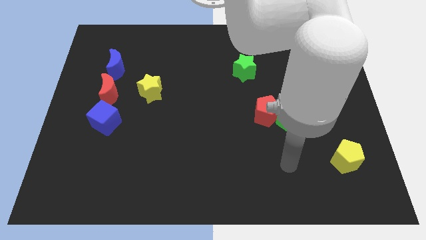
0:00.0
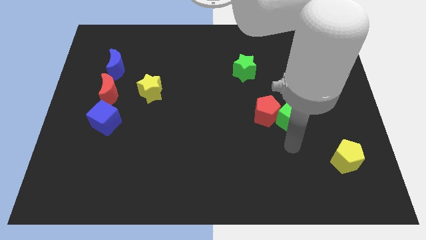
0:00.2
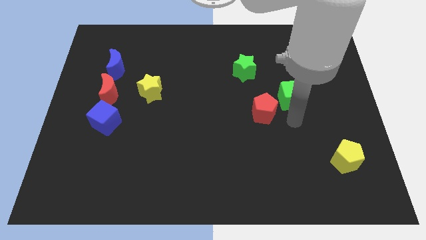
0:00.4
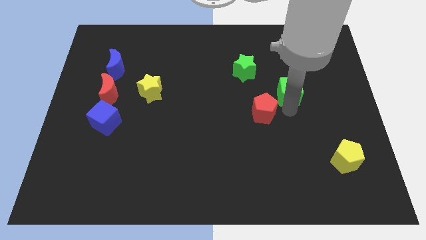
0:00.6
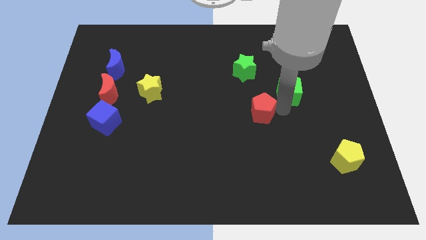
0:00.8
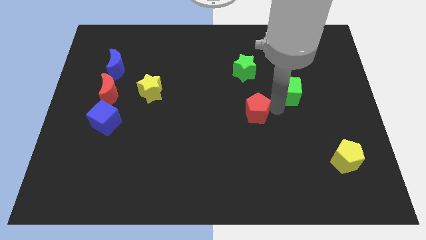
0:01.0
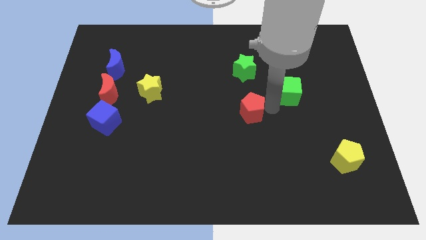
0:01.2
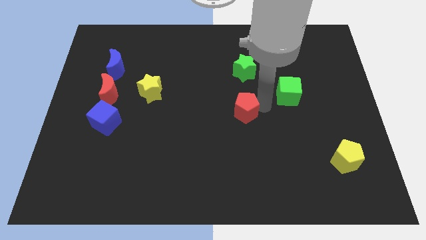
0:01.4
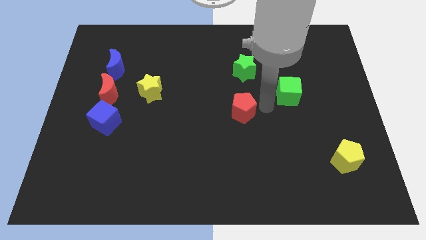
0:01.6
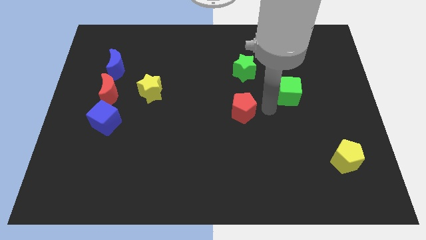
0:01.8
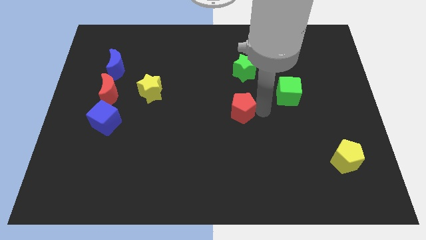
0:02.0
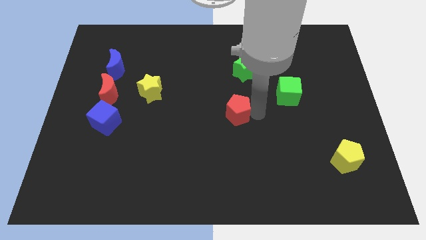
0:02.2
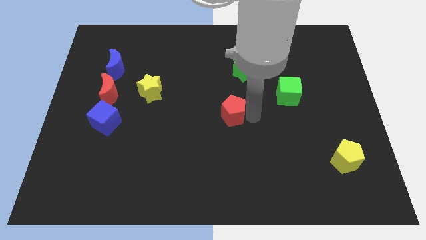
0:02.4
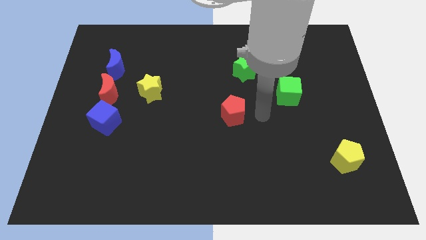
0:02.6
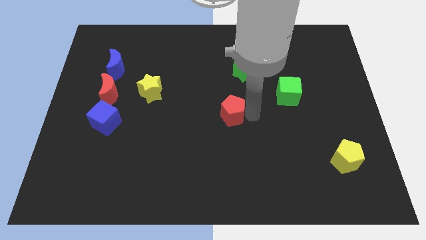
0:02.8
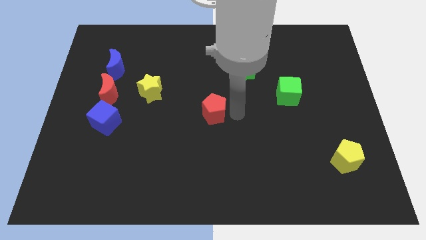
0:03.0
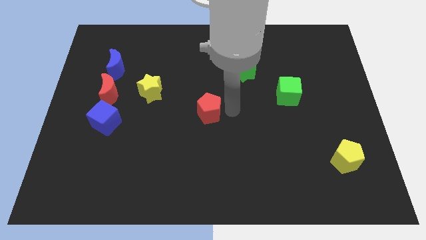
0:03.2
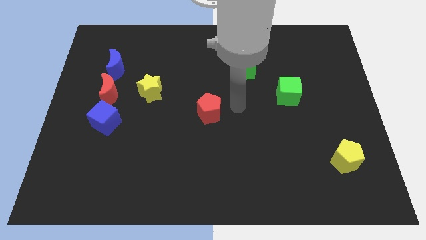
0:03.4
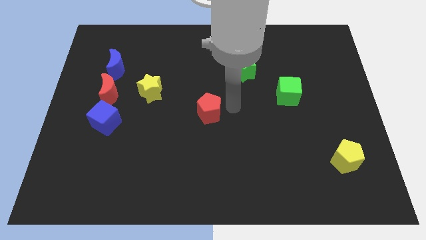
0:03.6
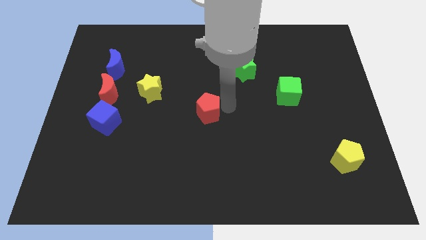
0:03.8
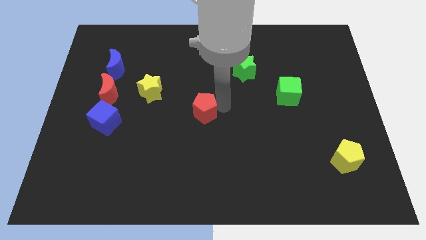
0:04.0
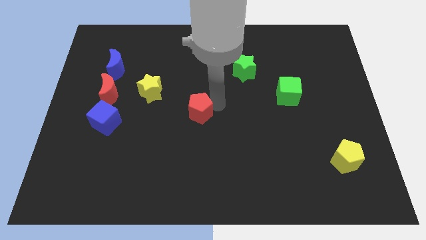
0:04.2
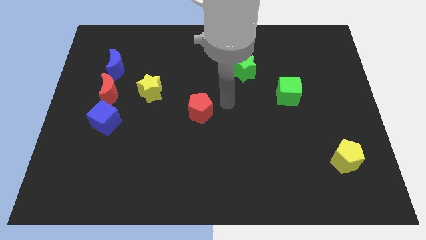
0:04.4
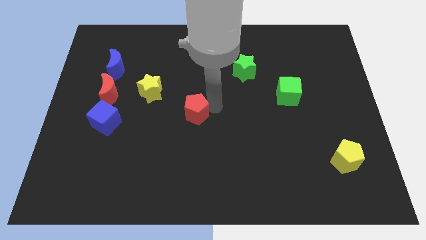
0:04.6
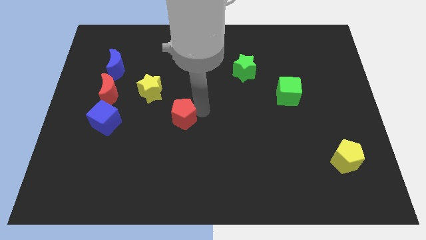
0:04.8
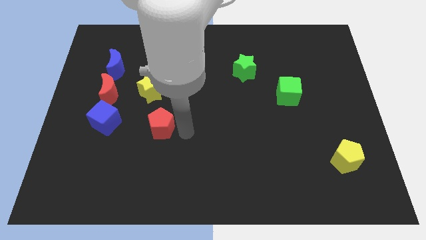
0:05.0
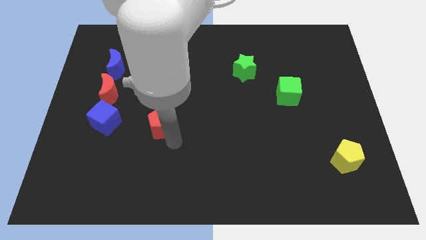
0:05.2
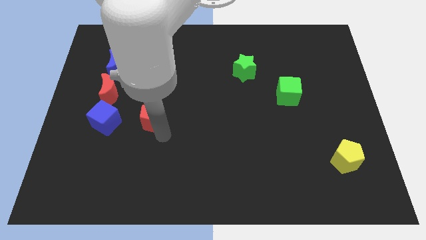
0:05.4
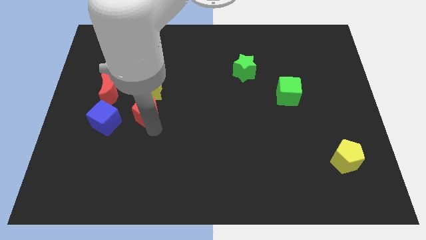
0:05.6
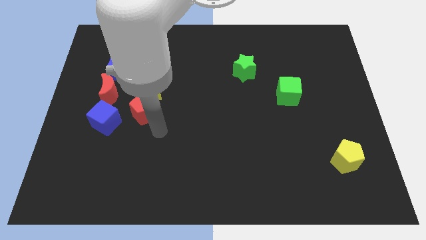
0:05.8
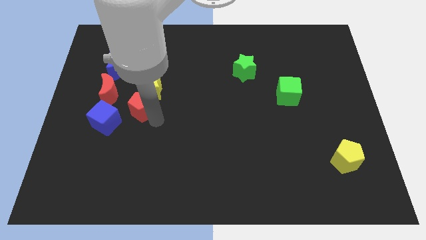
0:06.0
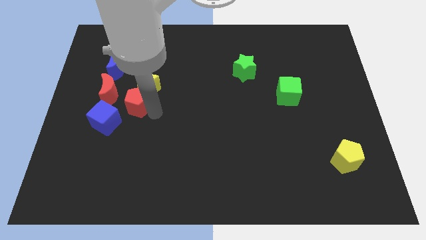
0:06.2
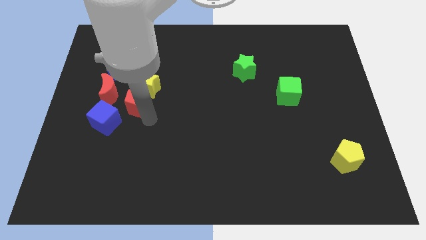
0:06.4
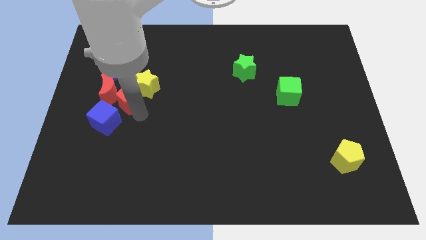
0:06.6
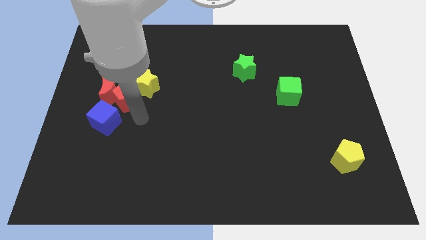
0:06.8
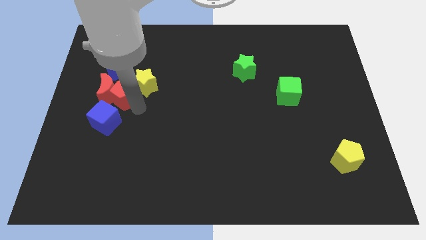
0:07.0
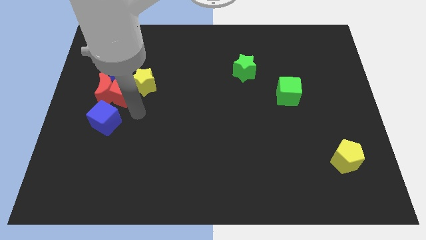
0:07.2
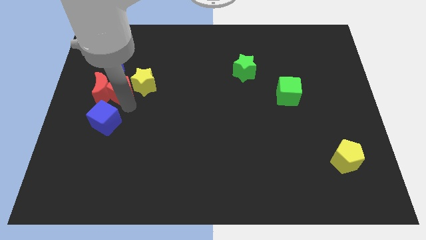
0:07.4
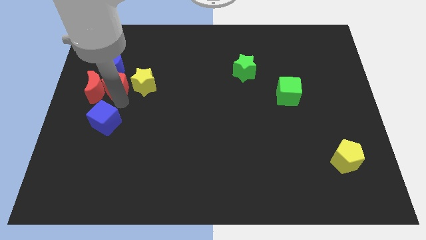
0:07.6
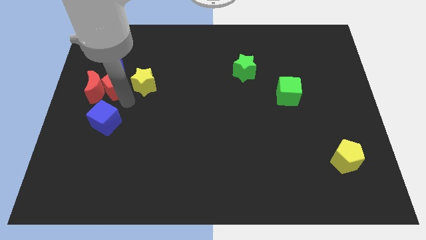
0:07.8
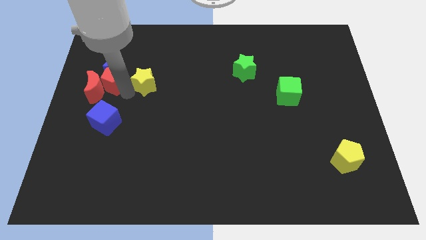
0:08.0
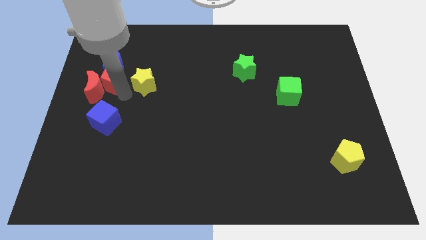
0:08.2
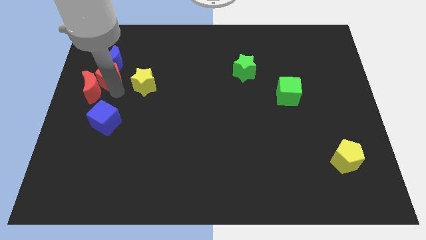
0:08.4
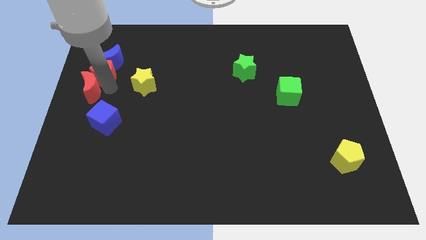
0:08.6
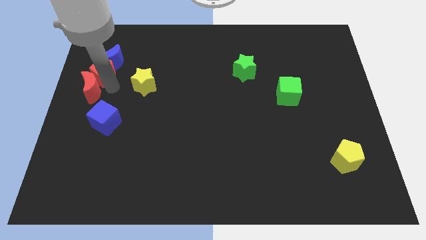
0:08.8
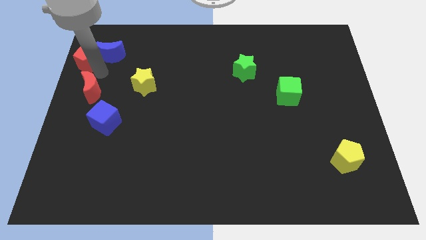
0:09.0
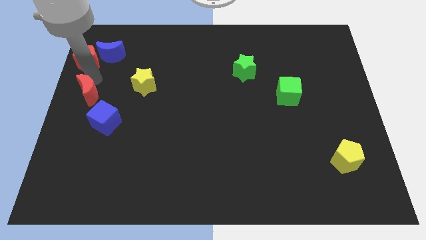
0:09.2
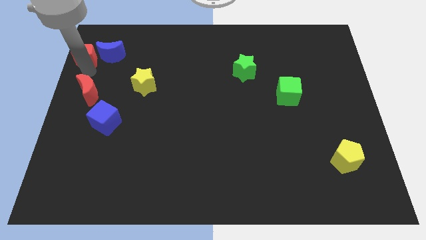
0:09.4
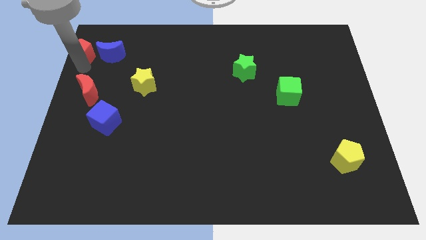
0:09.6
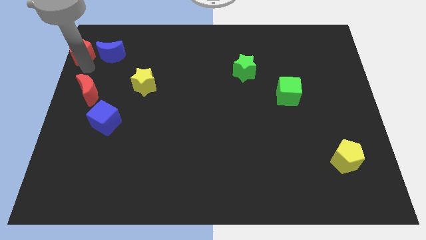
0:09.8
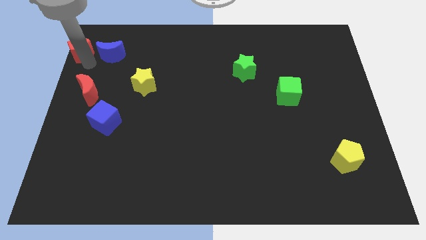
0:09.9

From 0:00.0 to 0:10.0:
move the red pentagon to the top left corner

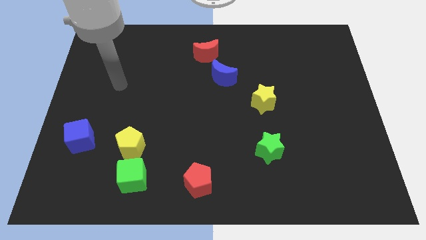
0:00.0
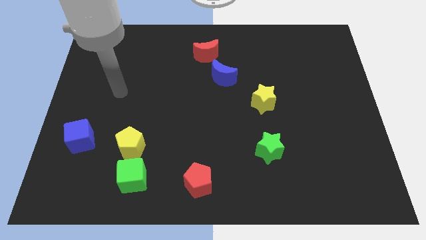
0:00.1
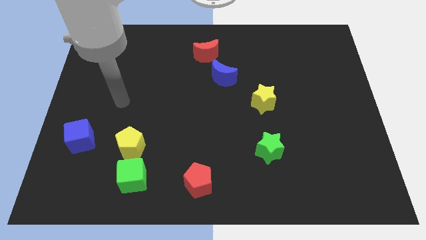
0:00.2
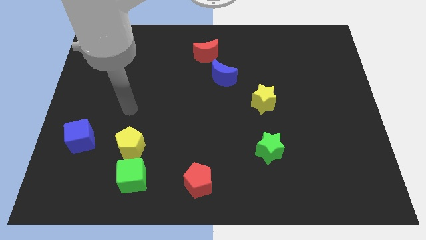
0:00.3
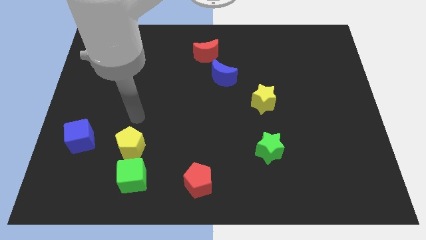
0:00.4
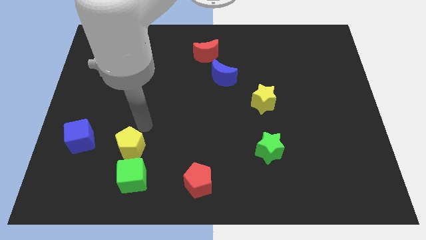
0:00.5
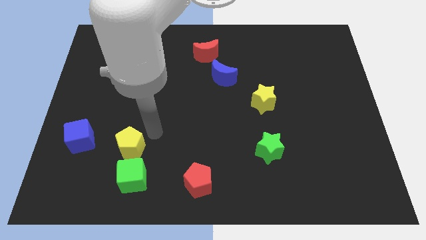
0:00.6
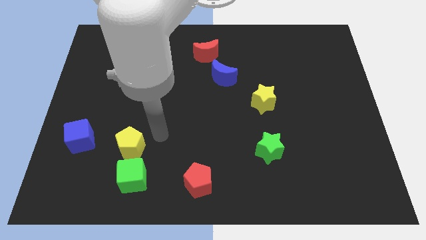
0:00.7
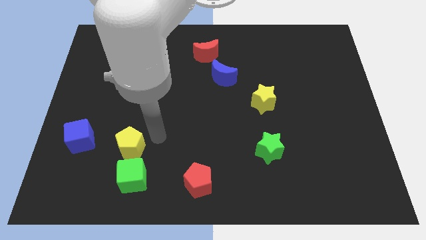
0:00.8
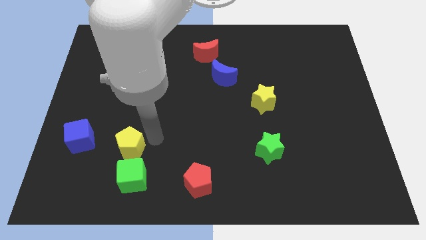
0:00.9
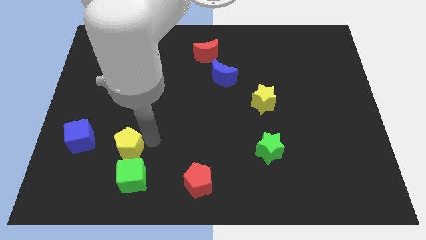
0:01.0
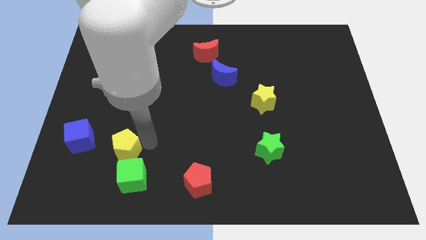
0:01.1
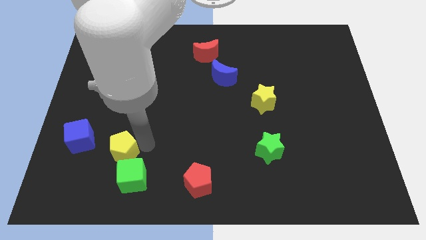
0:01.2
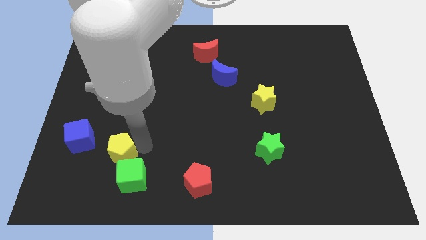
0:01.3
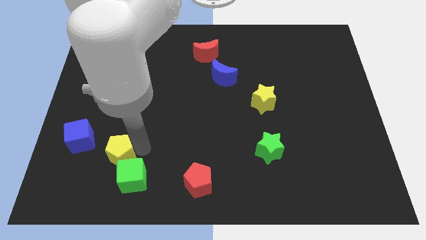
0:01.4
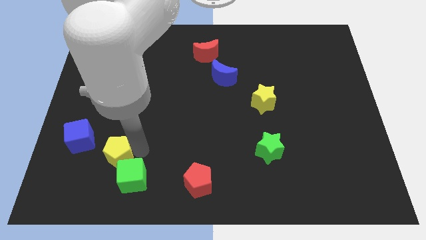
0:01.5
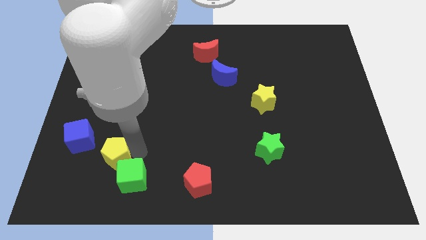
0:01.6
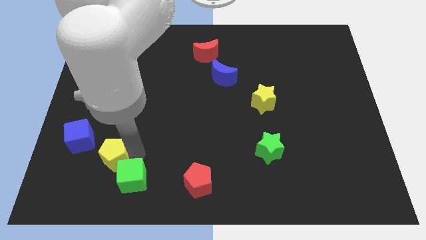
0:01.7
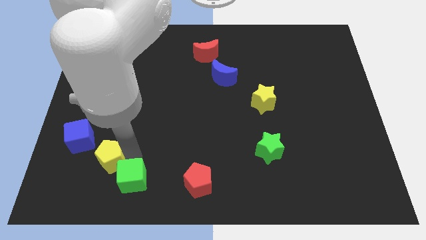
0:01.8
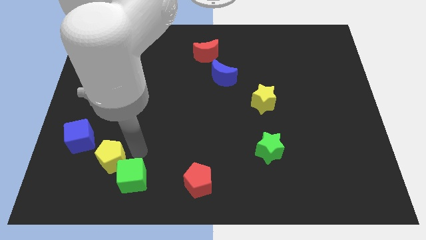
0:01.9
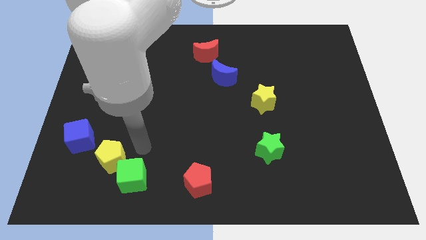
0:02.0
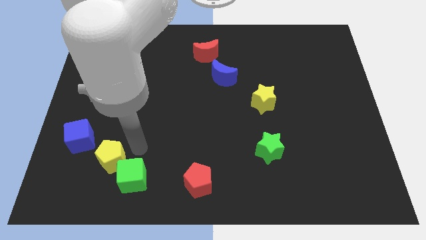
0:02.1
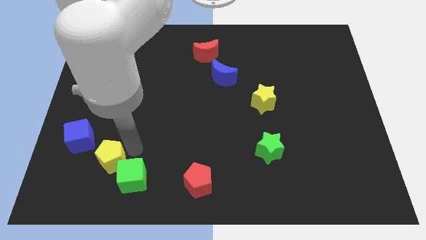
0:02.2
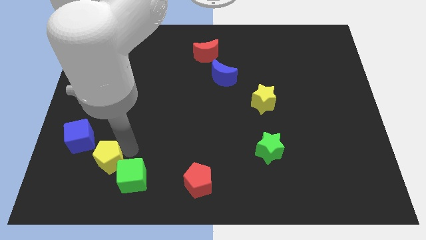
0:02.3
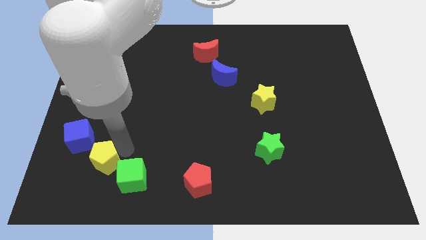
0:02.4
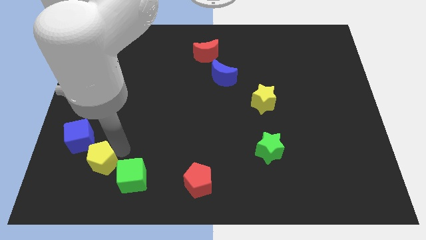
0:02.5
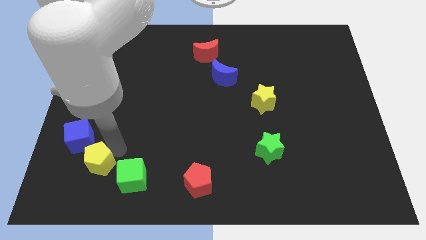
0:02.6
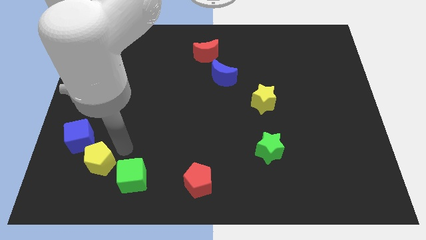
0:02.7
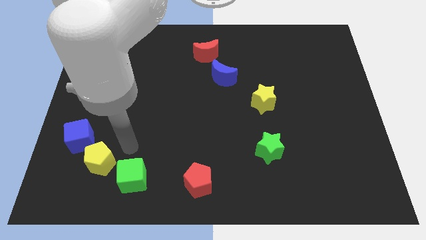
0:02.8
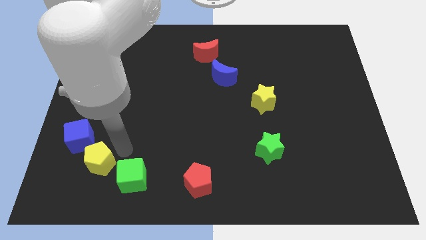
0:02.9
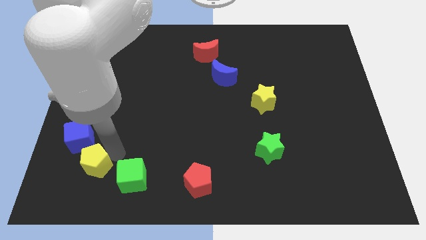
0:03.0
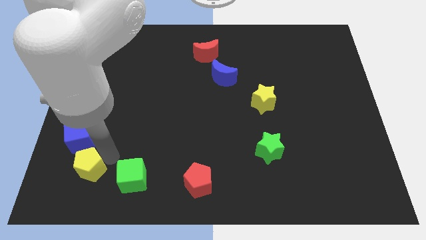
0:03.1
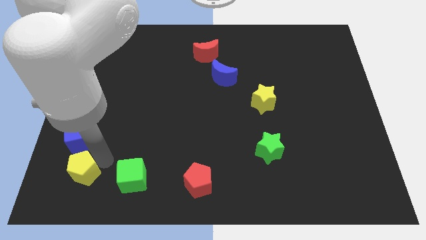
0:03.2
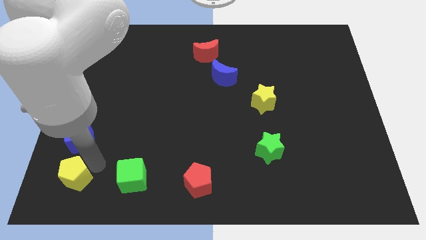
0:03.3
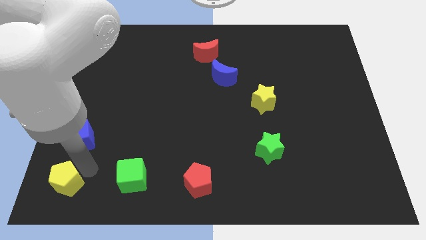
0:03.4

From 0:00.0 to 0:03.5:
move the yellow pentagon to the bottom left corner
